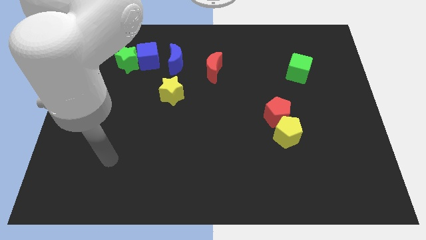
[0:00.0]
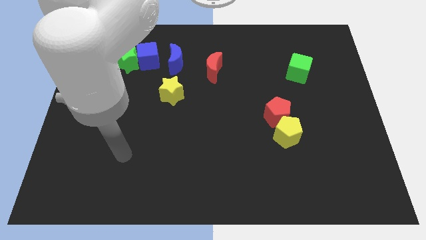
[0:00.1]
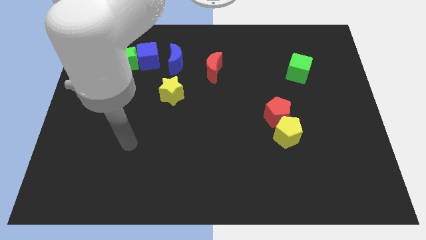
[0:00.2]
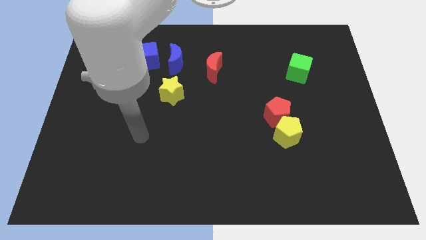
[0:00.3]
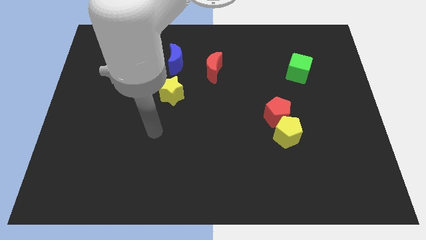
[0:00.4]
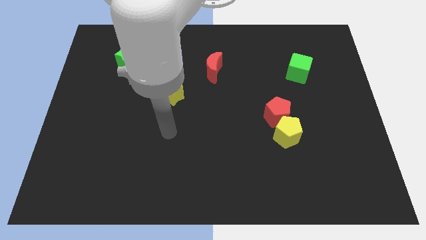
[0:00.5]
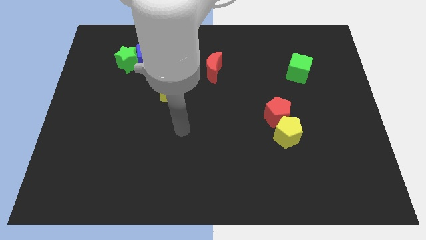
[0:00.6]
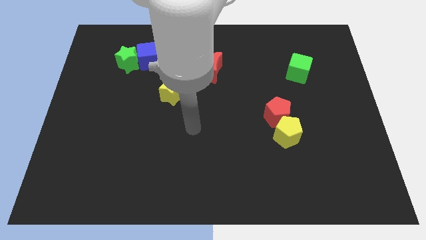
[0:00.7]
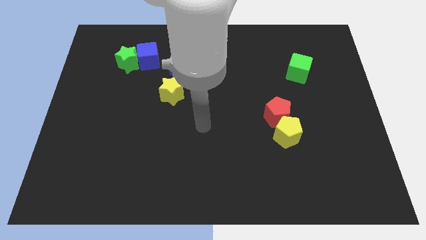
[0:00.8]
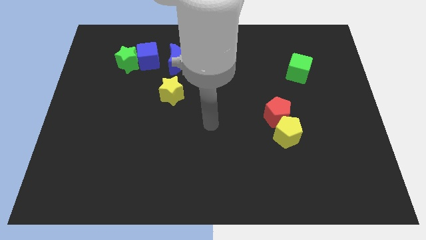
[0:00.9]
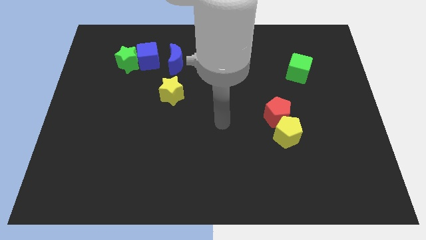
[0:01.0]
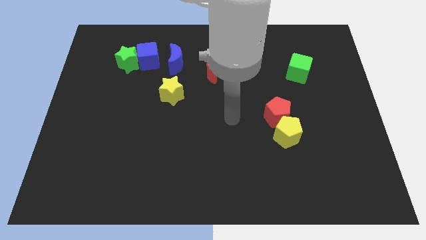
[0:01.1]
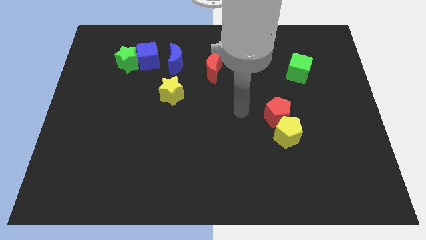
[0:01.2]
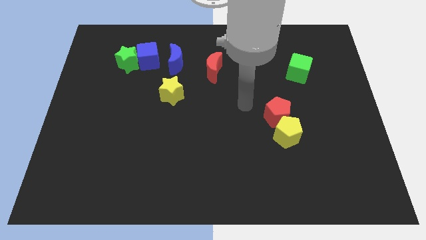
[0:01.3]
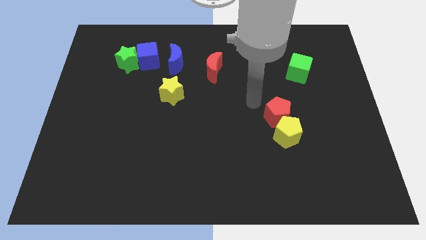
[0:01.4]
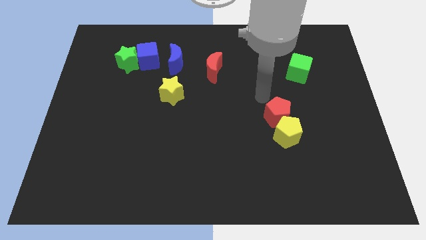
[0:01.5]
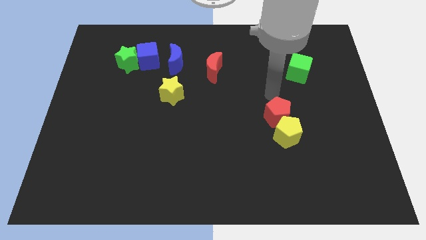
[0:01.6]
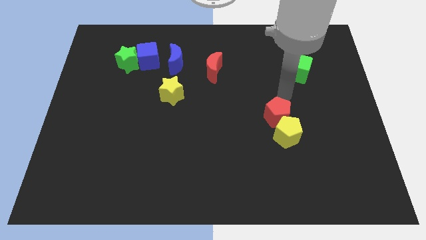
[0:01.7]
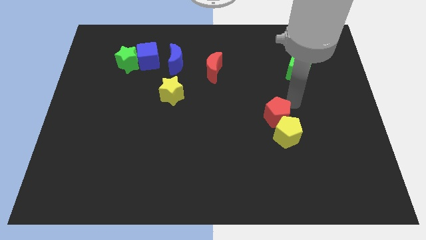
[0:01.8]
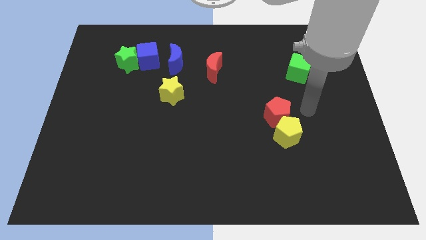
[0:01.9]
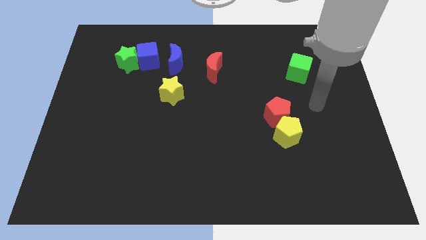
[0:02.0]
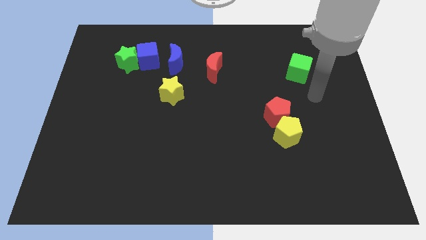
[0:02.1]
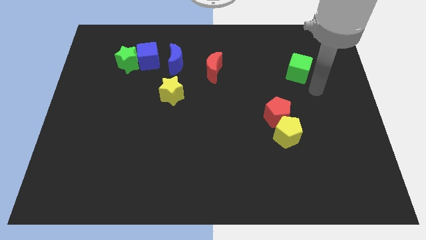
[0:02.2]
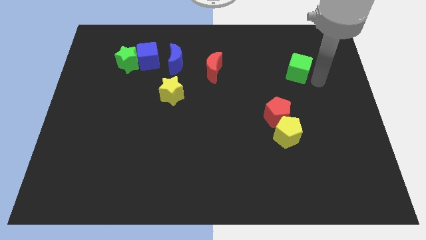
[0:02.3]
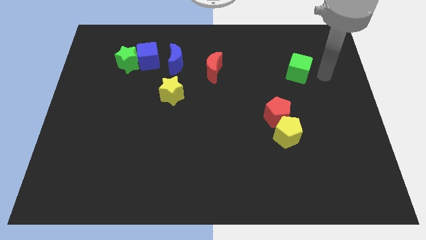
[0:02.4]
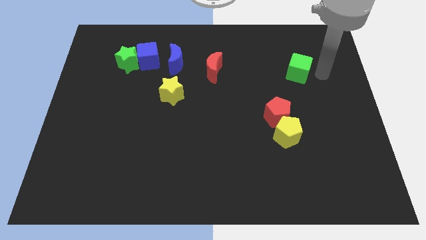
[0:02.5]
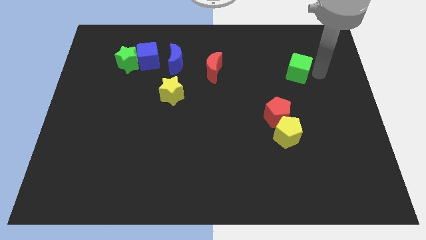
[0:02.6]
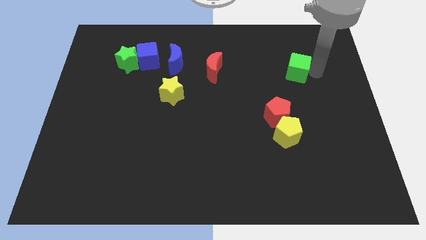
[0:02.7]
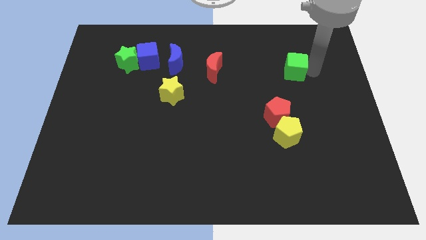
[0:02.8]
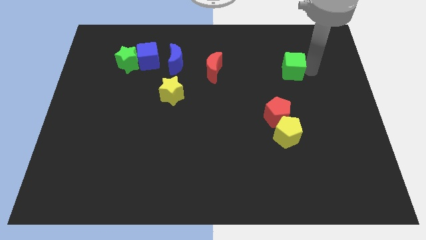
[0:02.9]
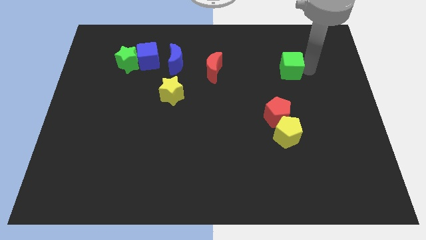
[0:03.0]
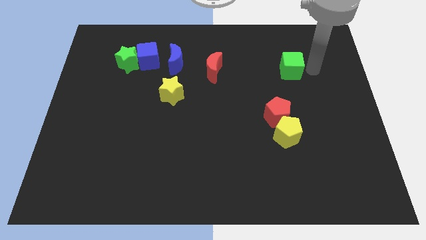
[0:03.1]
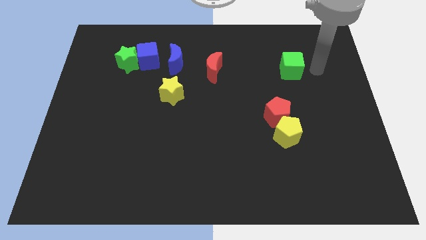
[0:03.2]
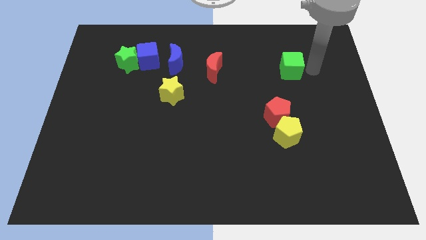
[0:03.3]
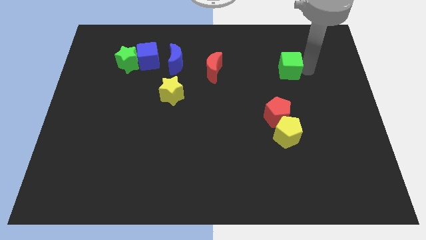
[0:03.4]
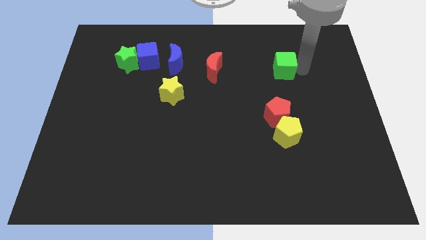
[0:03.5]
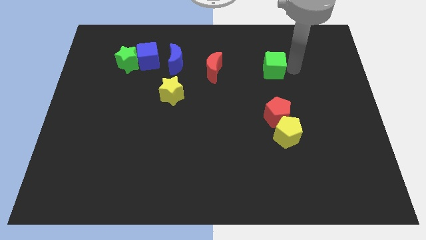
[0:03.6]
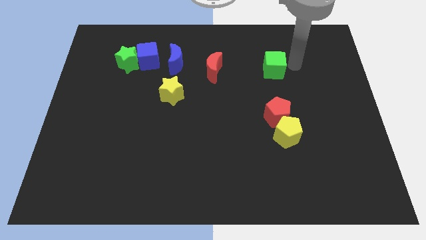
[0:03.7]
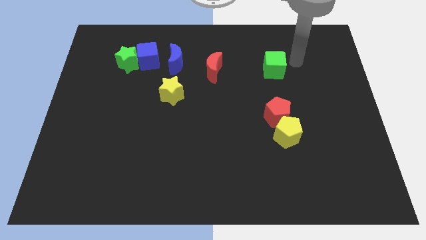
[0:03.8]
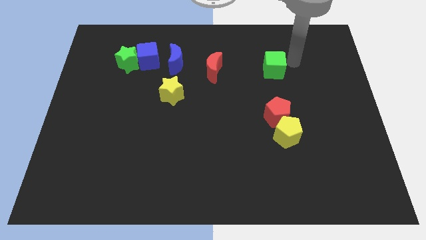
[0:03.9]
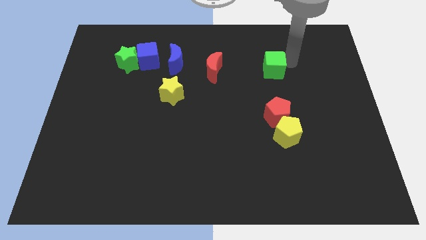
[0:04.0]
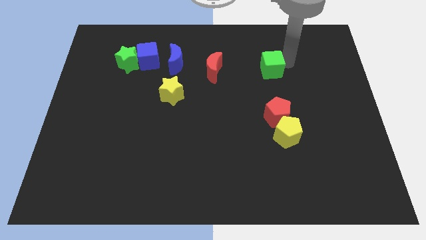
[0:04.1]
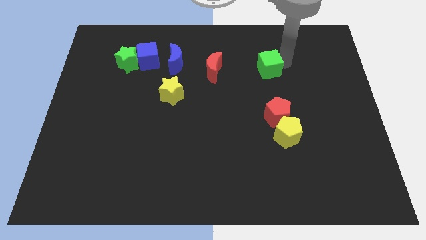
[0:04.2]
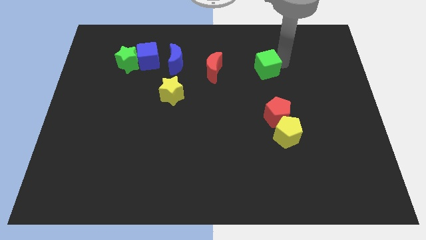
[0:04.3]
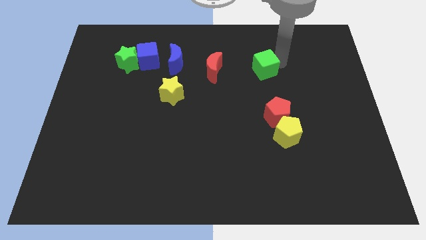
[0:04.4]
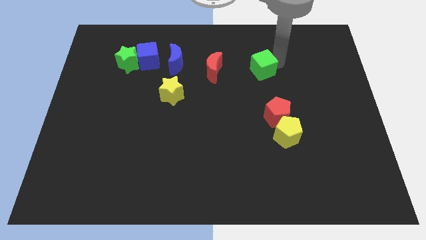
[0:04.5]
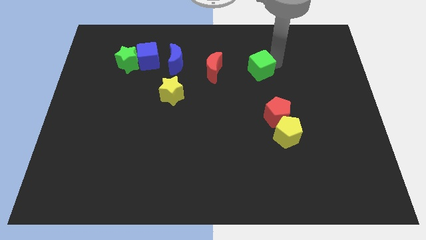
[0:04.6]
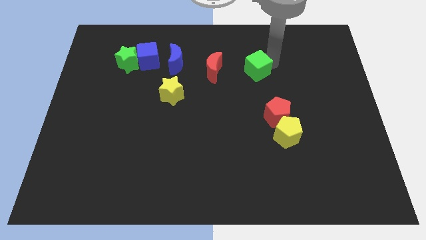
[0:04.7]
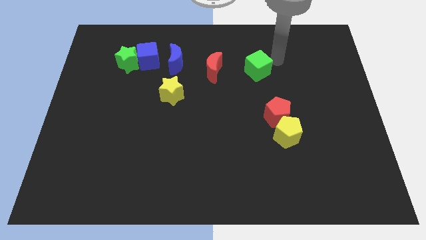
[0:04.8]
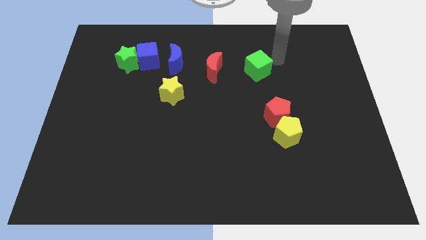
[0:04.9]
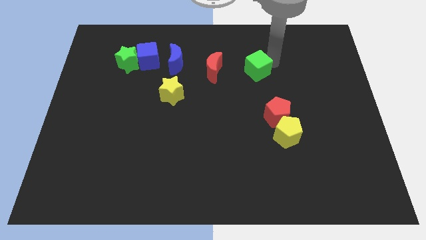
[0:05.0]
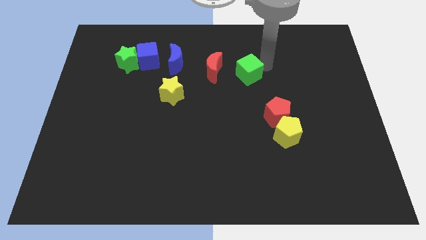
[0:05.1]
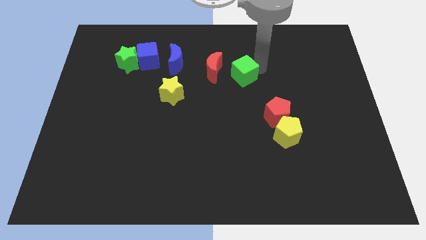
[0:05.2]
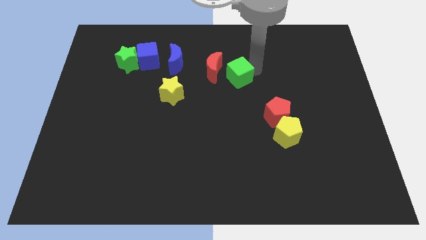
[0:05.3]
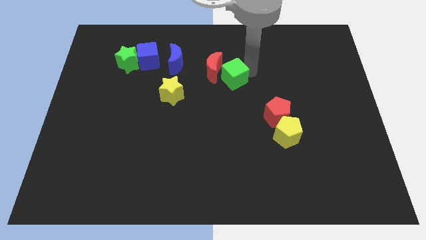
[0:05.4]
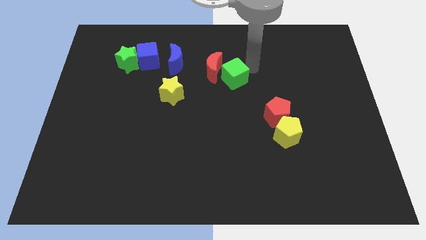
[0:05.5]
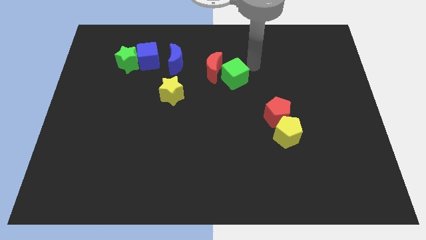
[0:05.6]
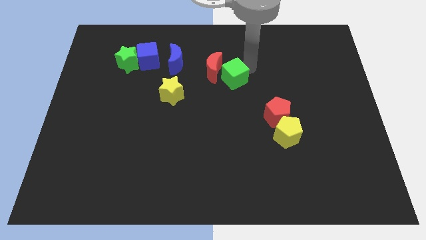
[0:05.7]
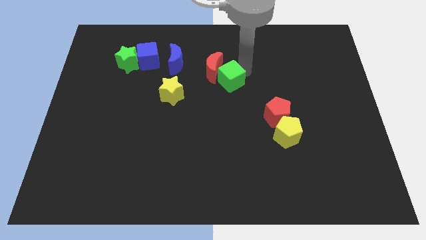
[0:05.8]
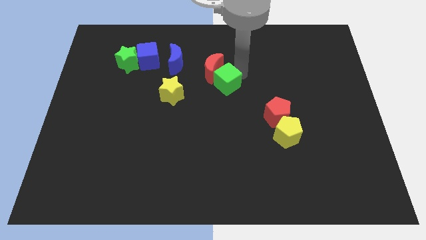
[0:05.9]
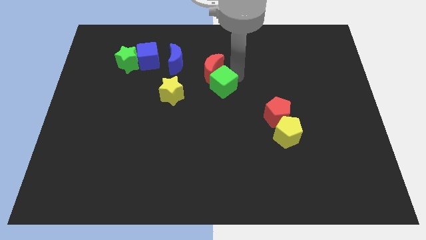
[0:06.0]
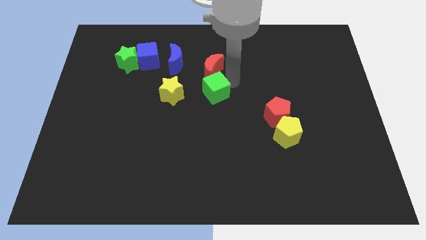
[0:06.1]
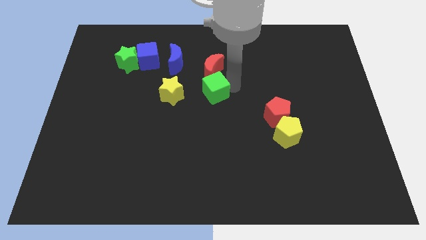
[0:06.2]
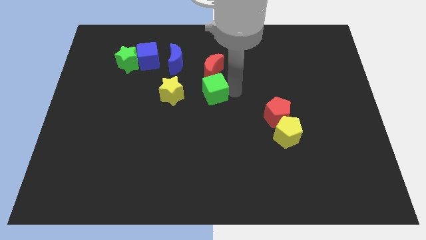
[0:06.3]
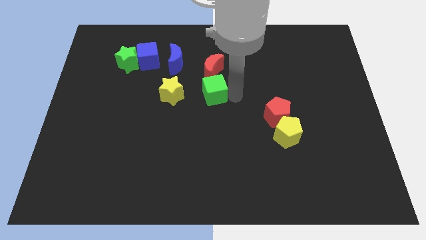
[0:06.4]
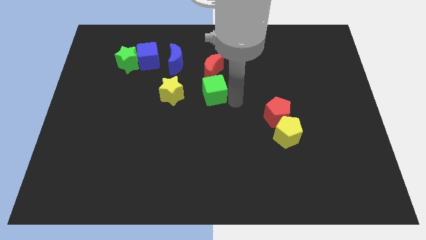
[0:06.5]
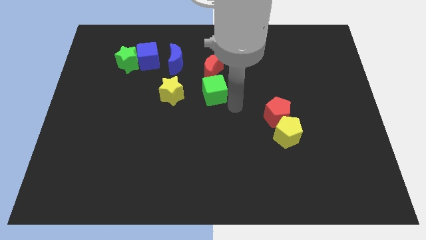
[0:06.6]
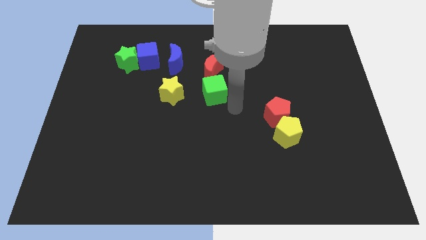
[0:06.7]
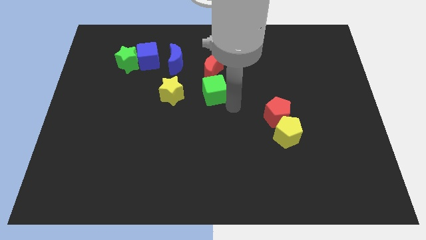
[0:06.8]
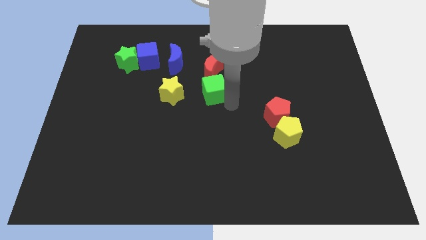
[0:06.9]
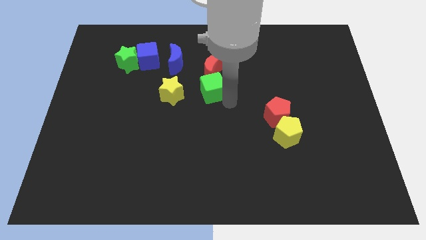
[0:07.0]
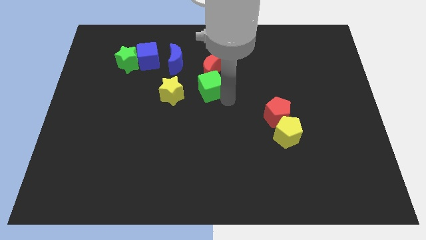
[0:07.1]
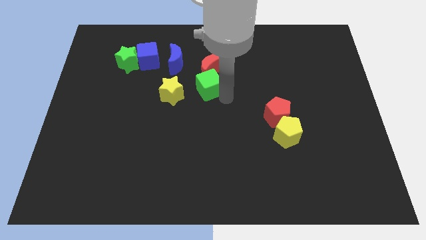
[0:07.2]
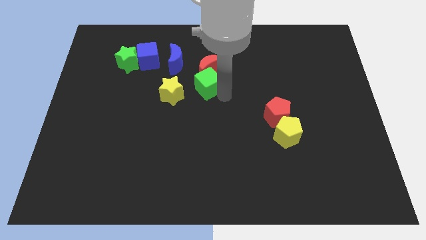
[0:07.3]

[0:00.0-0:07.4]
put the green cube to the top right side of the yellow star

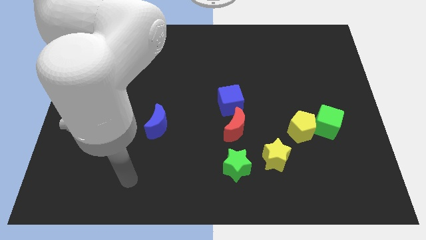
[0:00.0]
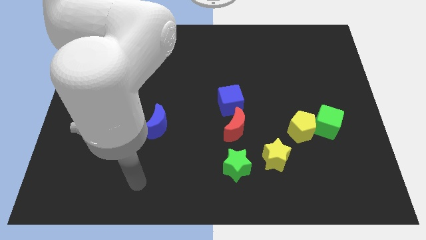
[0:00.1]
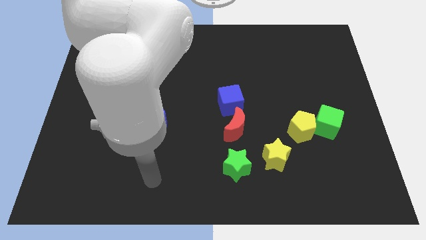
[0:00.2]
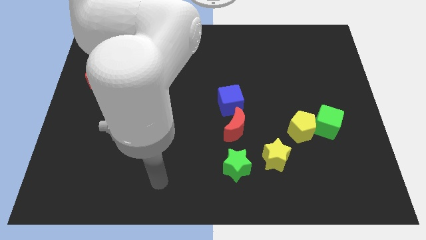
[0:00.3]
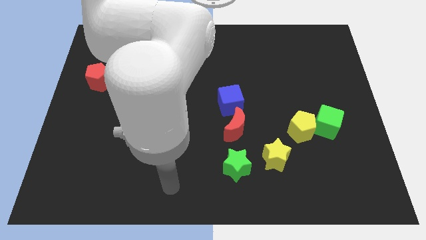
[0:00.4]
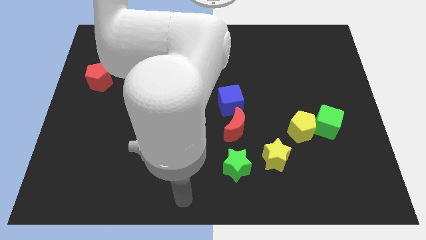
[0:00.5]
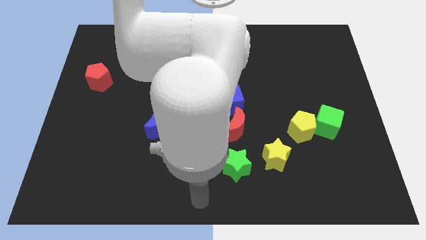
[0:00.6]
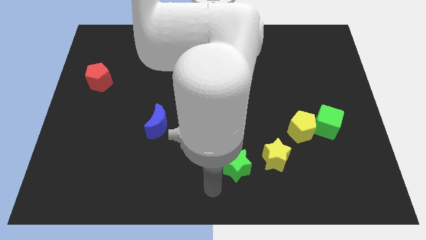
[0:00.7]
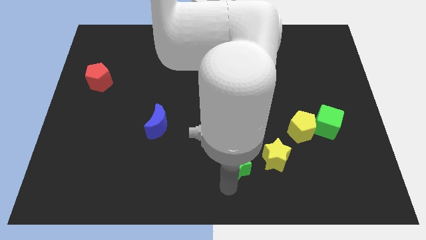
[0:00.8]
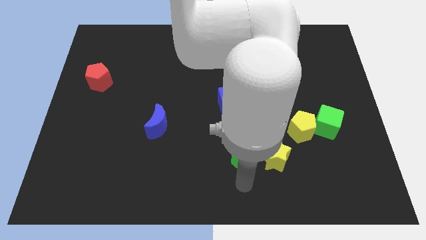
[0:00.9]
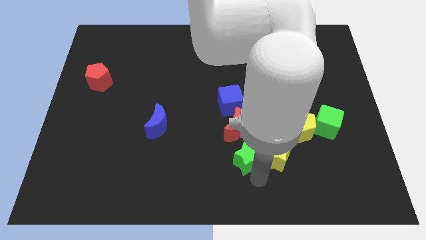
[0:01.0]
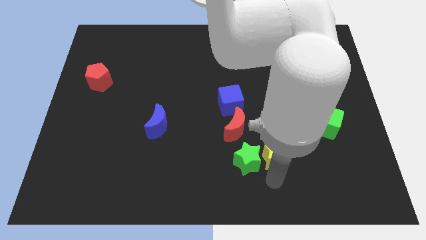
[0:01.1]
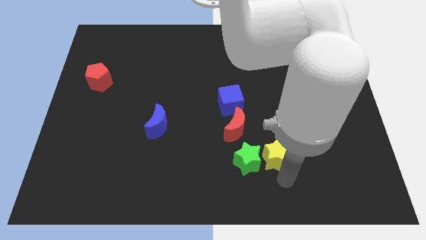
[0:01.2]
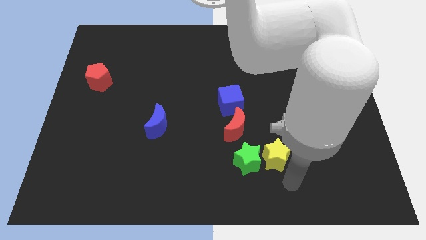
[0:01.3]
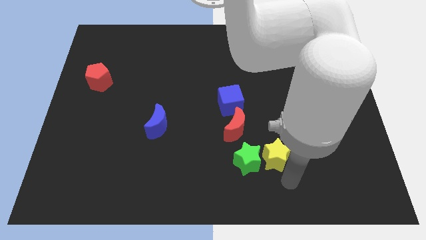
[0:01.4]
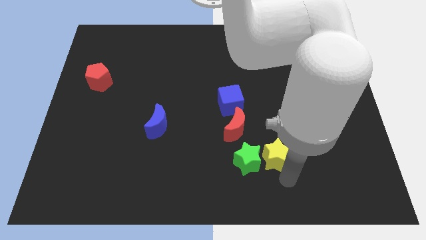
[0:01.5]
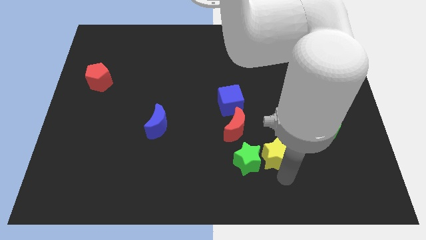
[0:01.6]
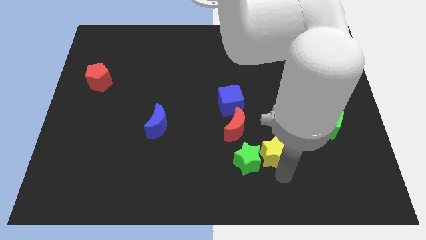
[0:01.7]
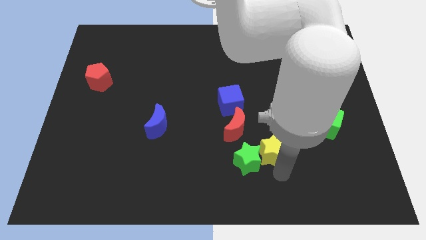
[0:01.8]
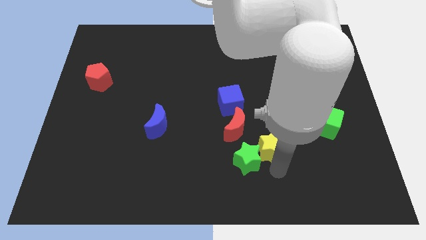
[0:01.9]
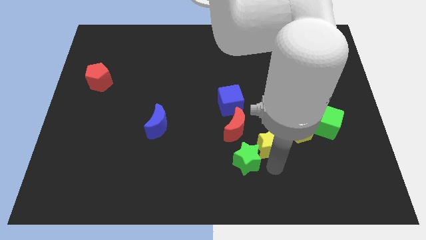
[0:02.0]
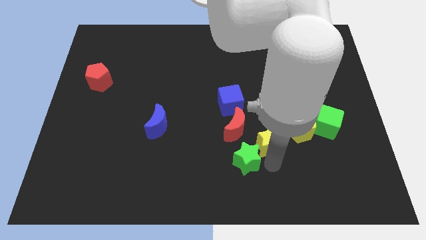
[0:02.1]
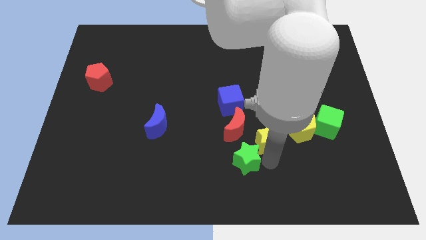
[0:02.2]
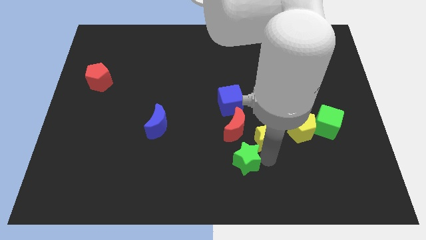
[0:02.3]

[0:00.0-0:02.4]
move the yellow star to the bottom right of the blue cube
